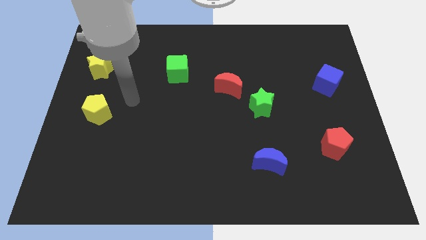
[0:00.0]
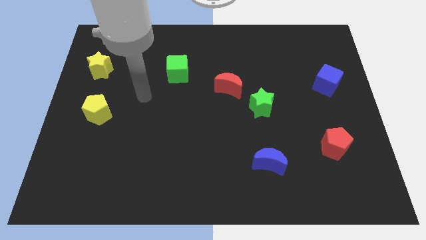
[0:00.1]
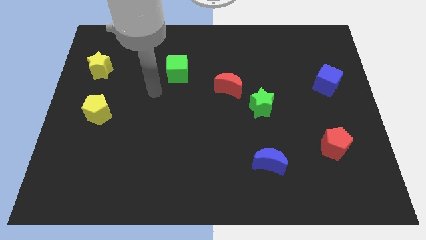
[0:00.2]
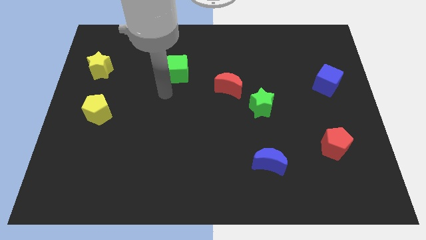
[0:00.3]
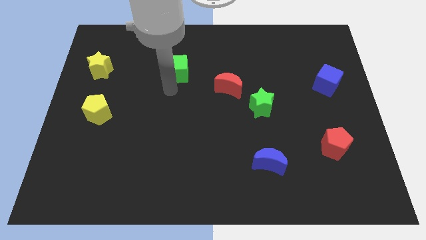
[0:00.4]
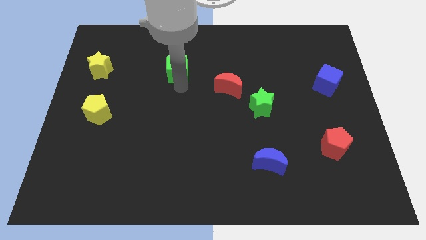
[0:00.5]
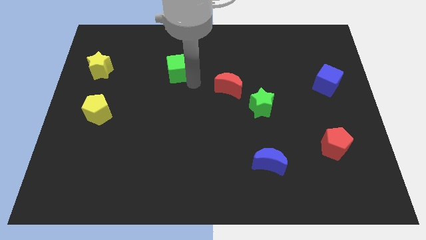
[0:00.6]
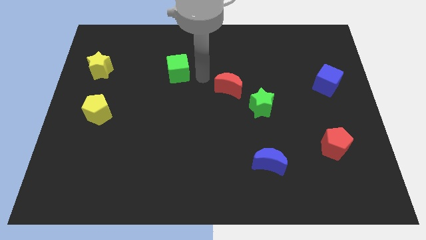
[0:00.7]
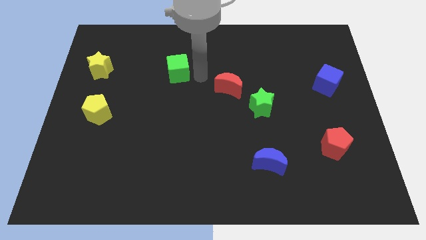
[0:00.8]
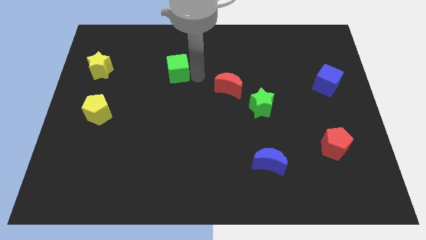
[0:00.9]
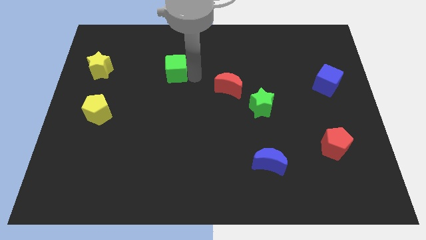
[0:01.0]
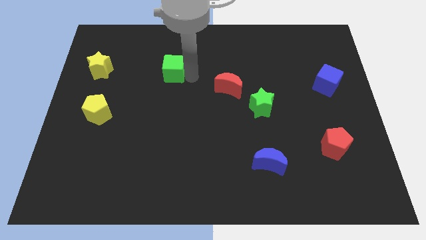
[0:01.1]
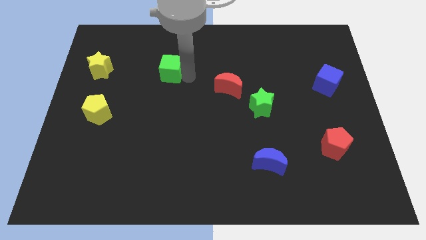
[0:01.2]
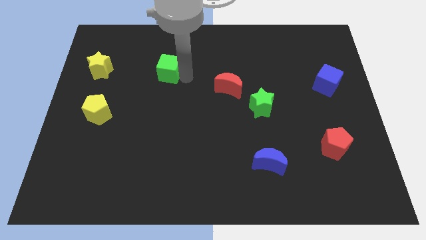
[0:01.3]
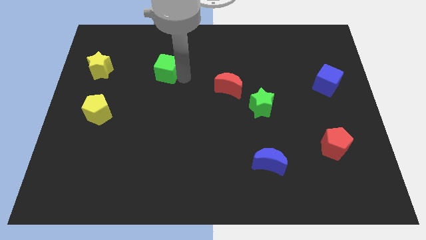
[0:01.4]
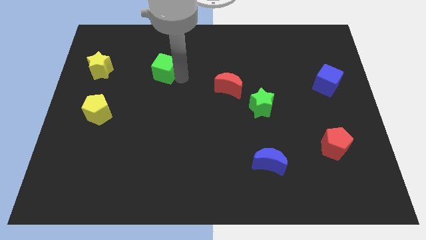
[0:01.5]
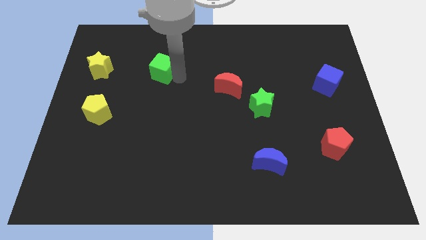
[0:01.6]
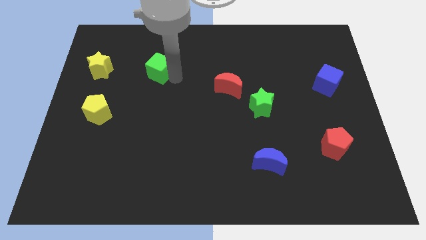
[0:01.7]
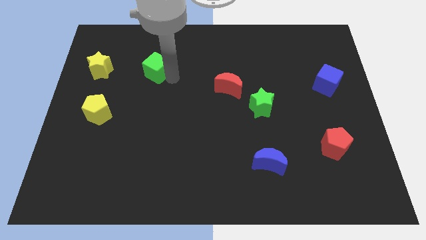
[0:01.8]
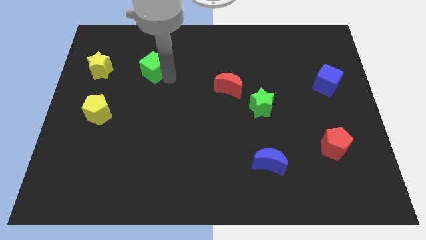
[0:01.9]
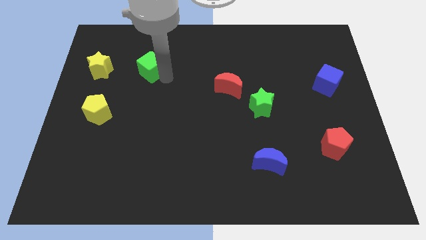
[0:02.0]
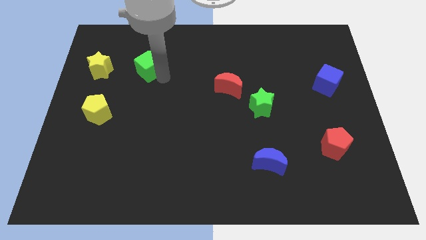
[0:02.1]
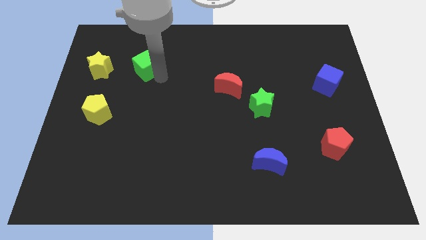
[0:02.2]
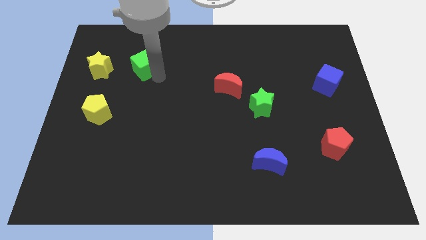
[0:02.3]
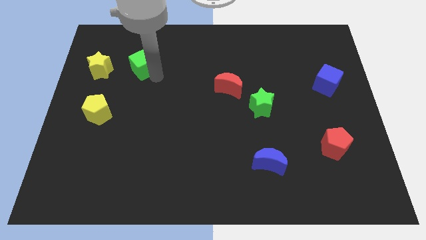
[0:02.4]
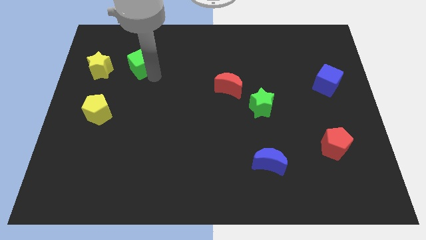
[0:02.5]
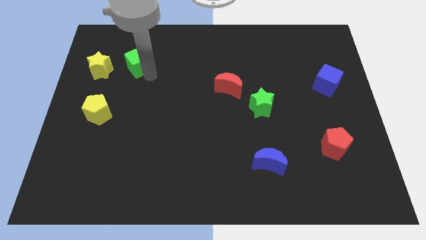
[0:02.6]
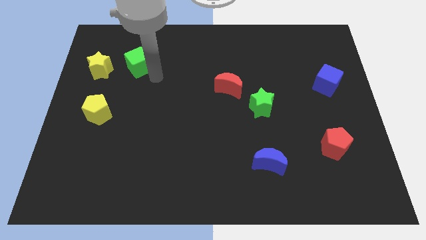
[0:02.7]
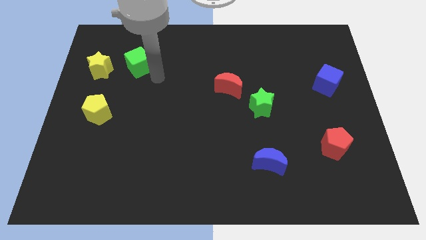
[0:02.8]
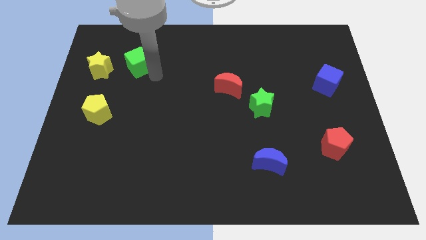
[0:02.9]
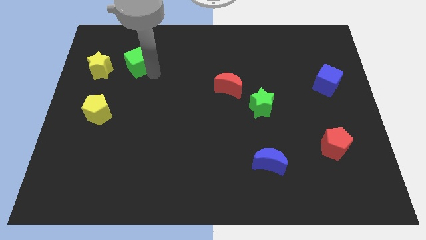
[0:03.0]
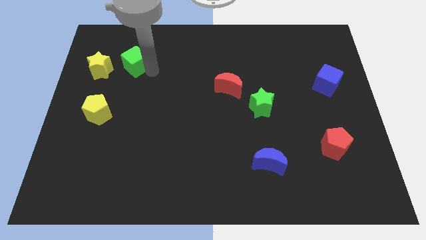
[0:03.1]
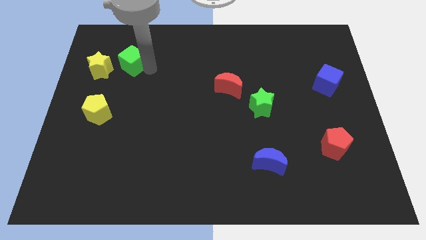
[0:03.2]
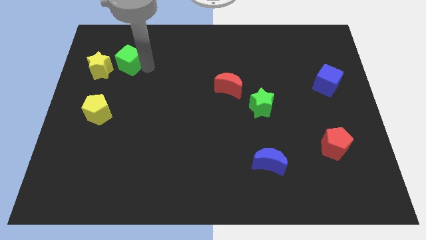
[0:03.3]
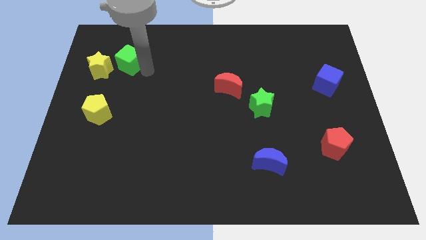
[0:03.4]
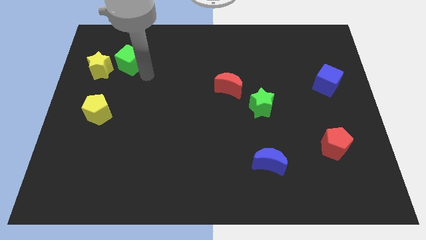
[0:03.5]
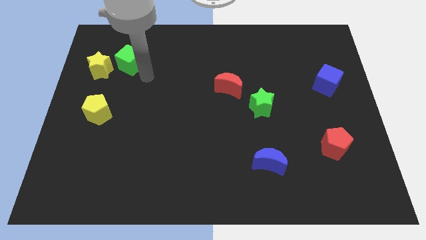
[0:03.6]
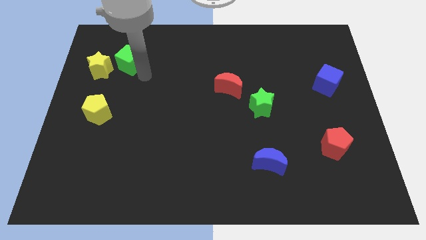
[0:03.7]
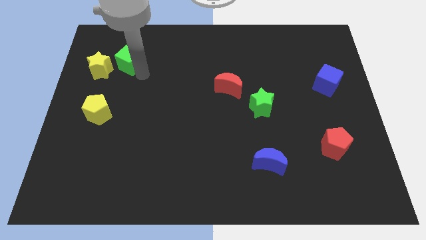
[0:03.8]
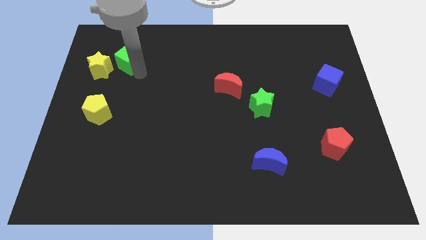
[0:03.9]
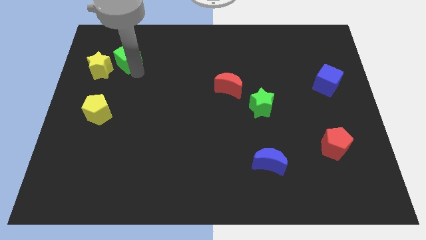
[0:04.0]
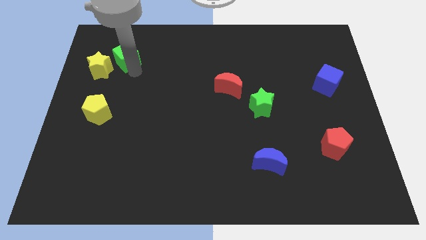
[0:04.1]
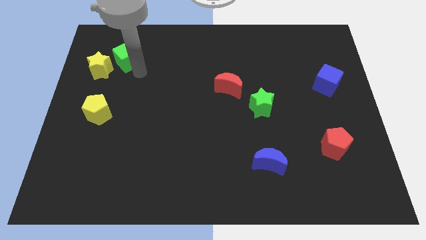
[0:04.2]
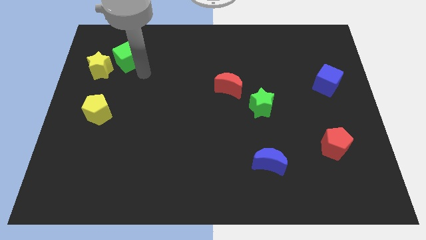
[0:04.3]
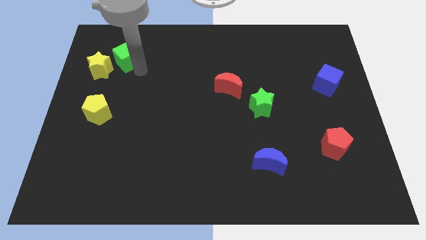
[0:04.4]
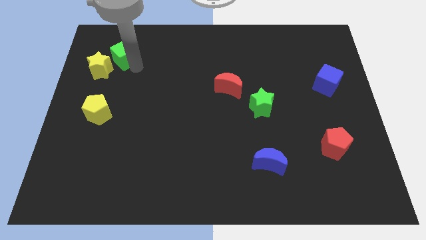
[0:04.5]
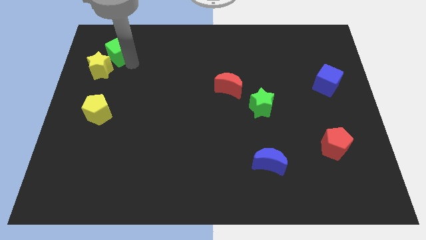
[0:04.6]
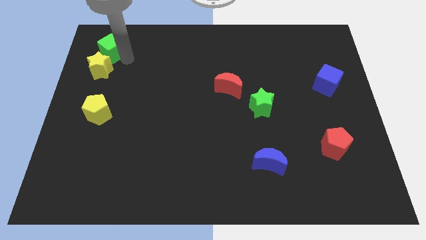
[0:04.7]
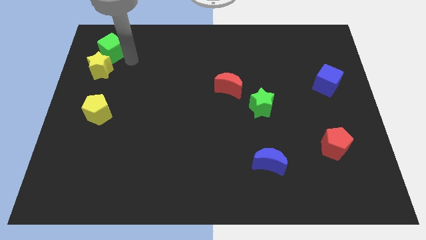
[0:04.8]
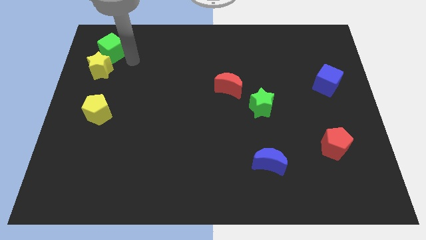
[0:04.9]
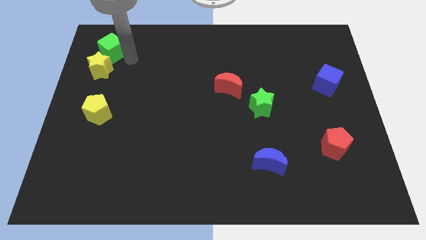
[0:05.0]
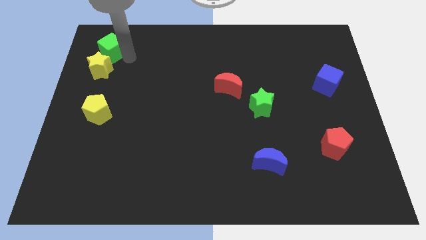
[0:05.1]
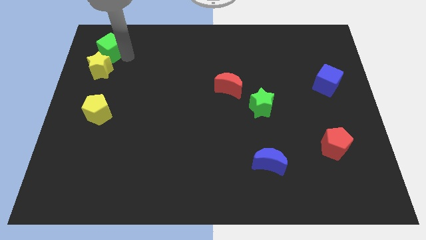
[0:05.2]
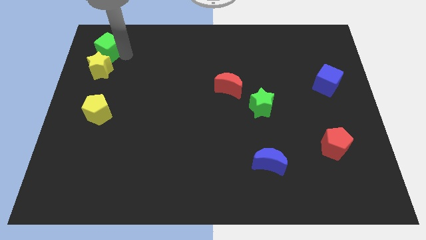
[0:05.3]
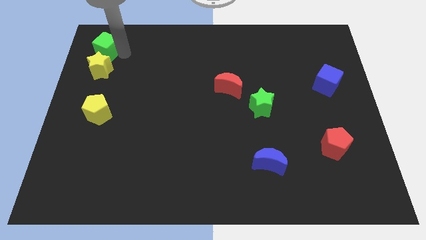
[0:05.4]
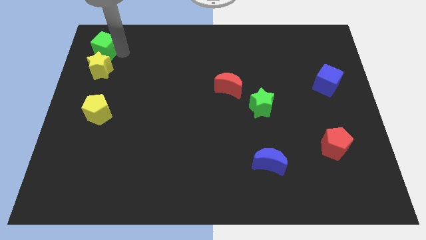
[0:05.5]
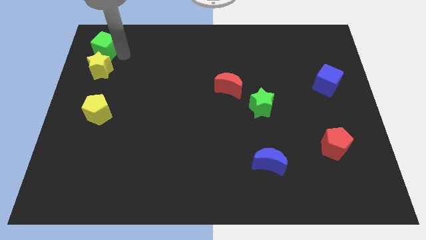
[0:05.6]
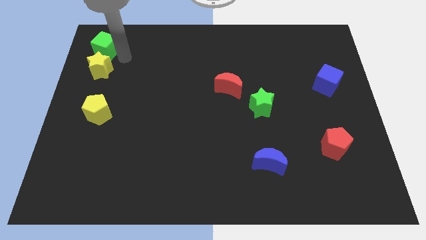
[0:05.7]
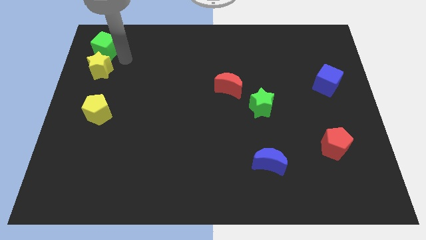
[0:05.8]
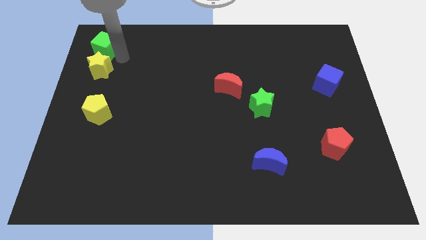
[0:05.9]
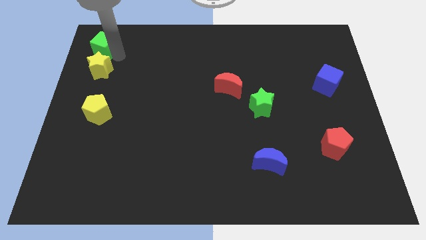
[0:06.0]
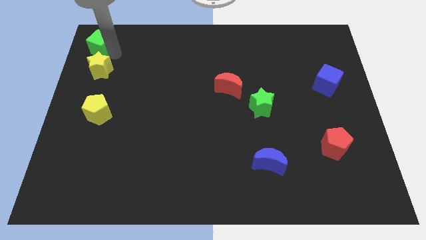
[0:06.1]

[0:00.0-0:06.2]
slide the green cube to the top left of the board

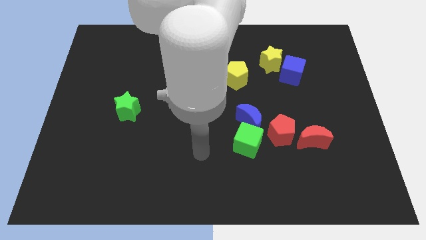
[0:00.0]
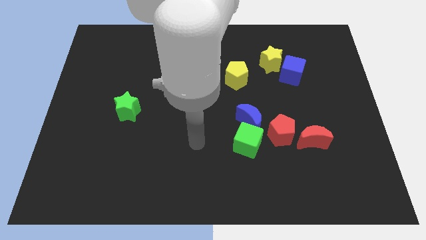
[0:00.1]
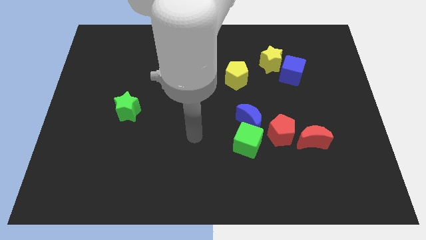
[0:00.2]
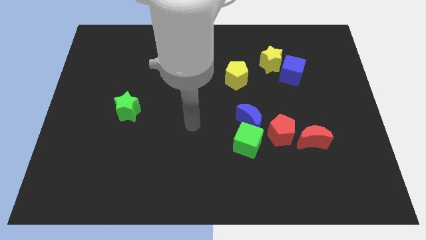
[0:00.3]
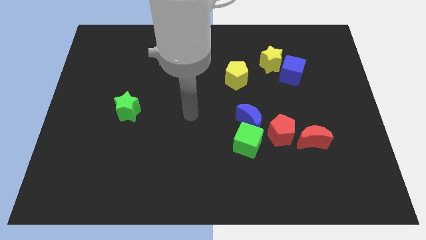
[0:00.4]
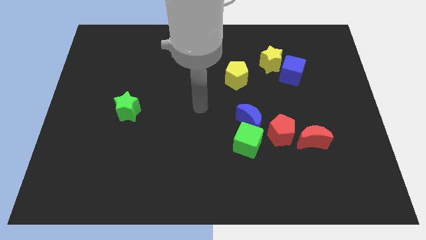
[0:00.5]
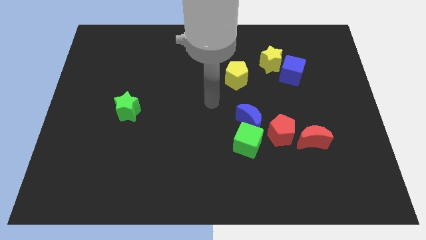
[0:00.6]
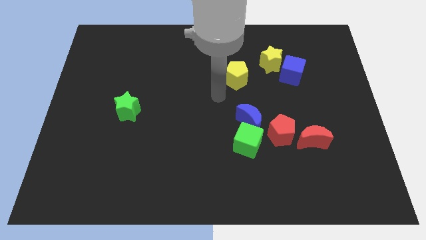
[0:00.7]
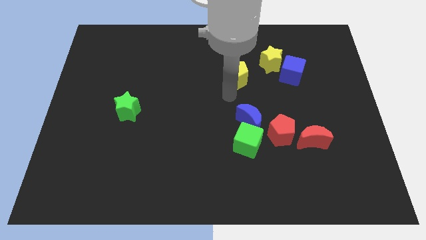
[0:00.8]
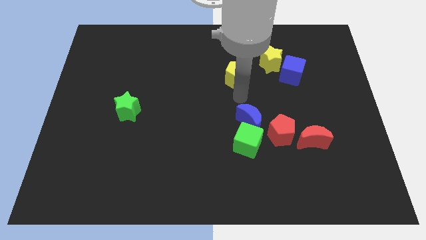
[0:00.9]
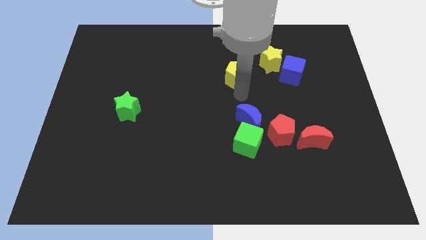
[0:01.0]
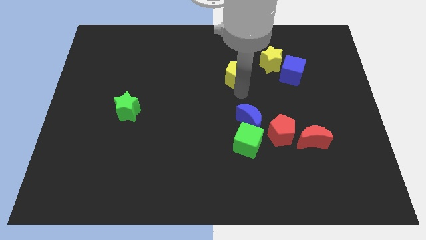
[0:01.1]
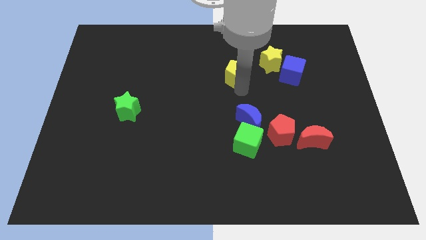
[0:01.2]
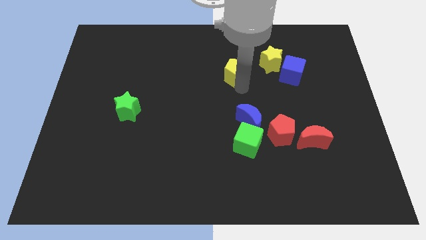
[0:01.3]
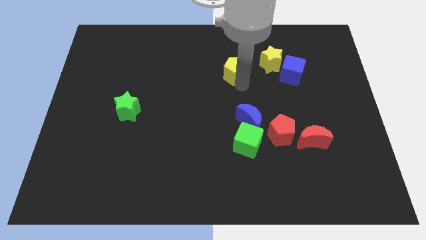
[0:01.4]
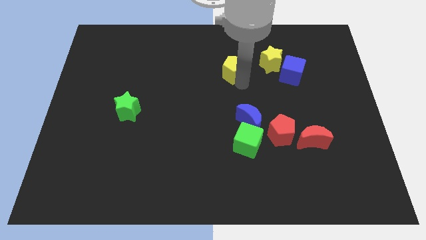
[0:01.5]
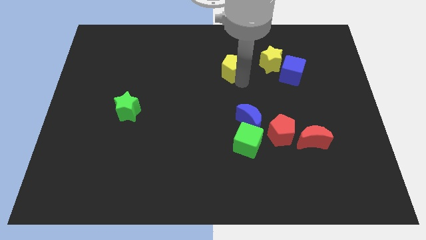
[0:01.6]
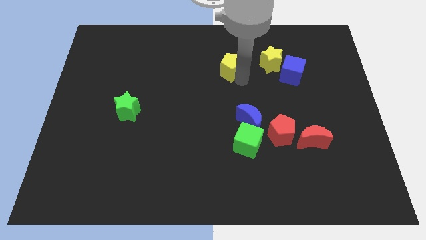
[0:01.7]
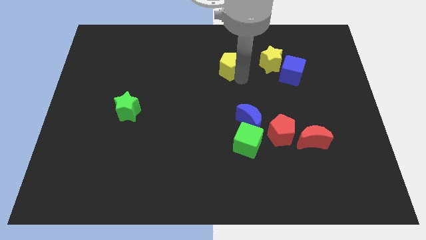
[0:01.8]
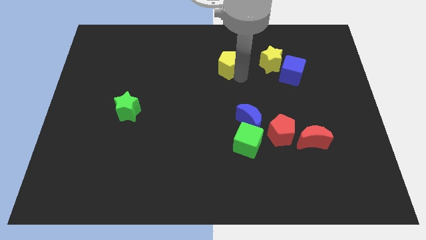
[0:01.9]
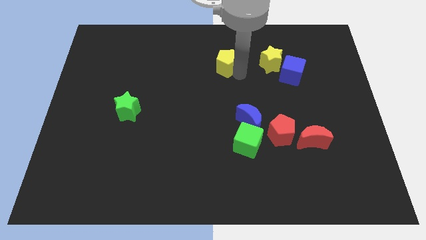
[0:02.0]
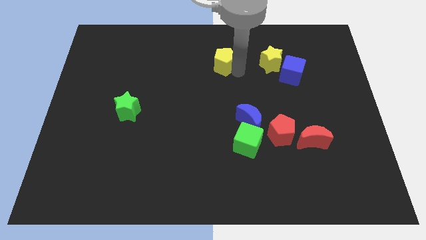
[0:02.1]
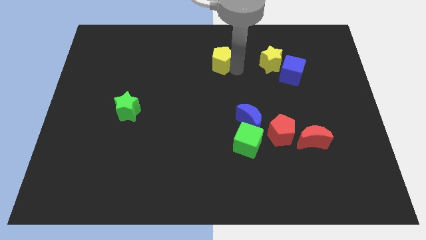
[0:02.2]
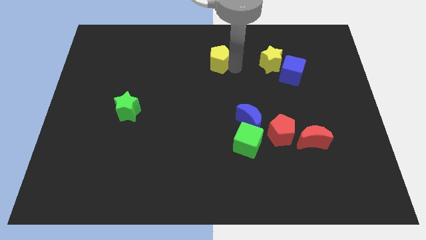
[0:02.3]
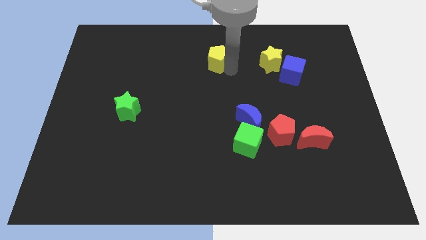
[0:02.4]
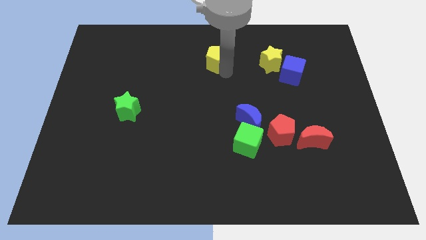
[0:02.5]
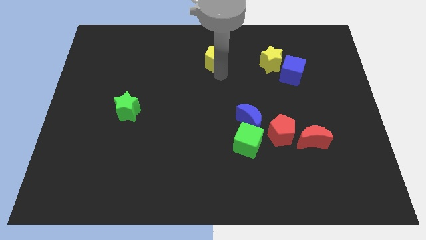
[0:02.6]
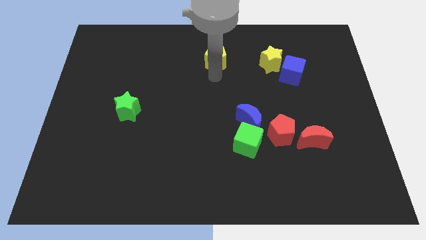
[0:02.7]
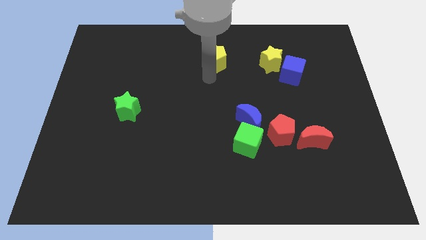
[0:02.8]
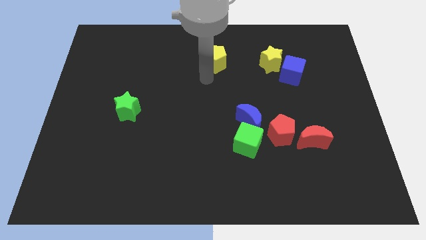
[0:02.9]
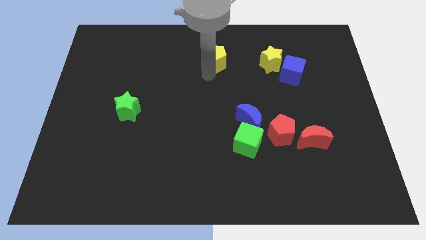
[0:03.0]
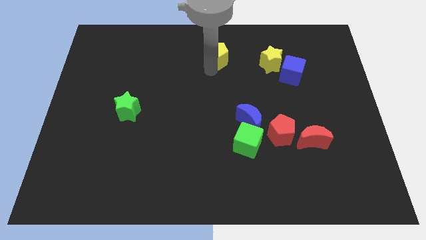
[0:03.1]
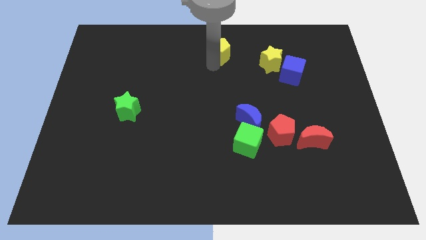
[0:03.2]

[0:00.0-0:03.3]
move the yellow pentagon to the top side
